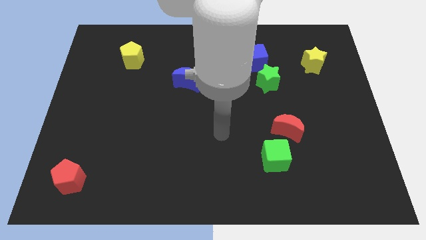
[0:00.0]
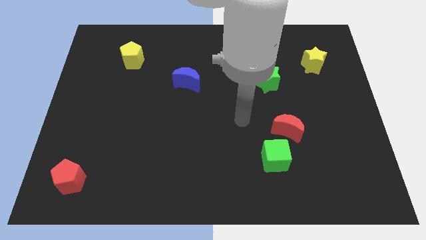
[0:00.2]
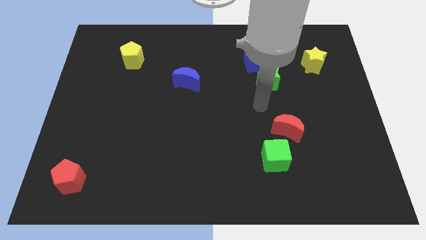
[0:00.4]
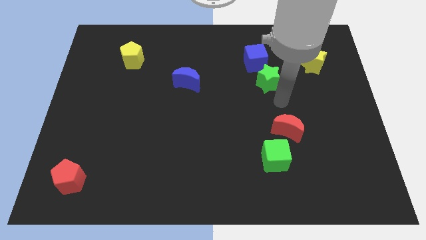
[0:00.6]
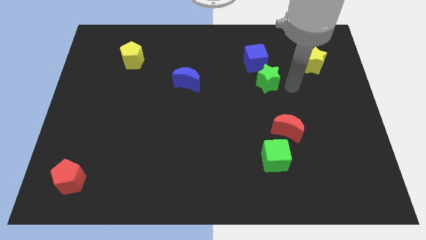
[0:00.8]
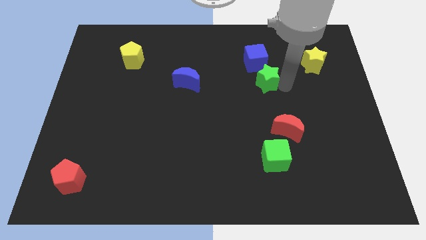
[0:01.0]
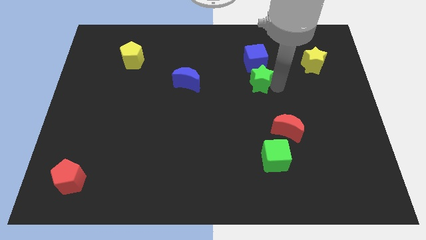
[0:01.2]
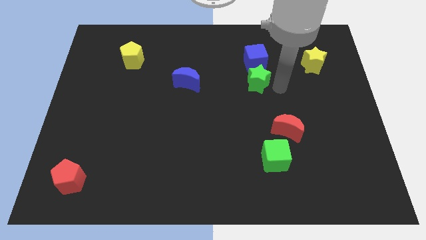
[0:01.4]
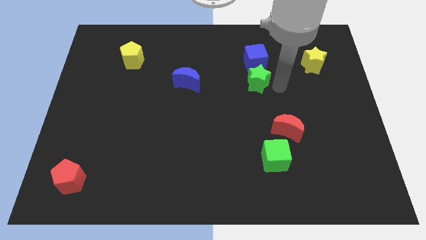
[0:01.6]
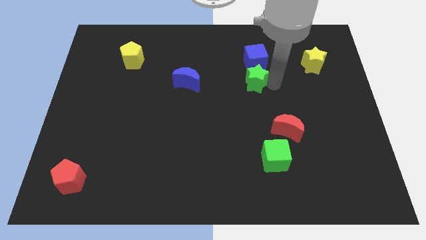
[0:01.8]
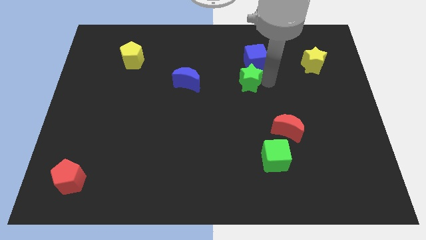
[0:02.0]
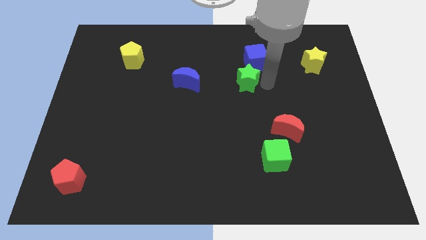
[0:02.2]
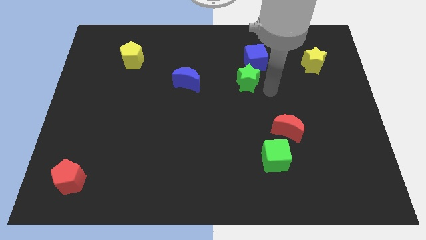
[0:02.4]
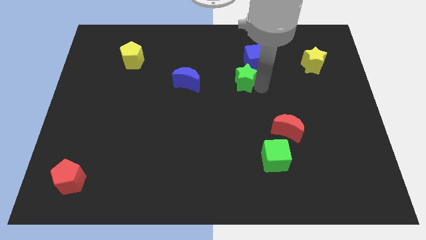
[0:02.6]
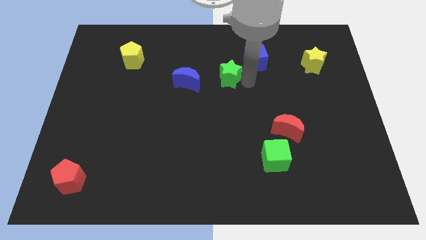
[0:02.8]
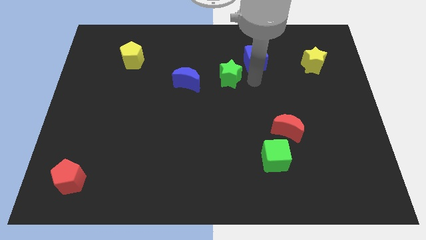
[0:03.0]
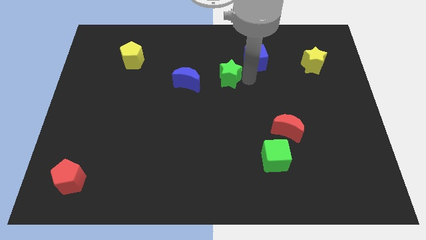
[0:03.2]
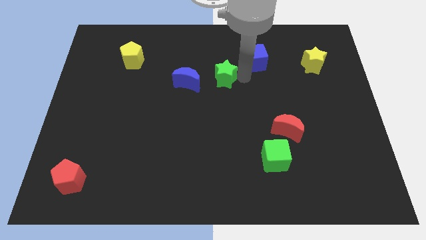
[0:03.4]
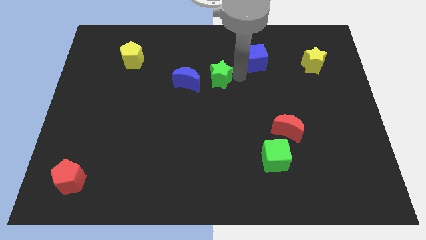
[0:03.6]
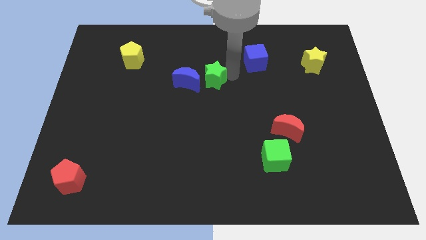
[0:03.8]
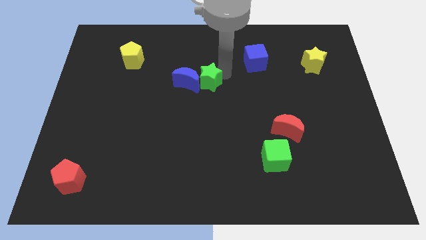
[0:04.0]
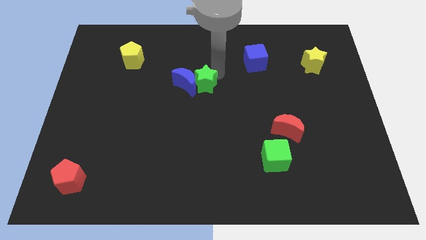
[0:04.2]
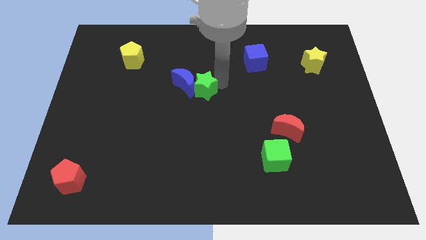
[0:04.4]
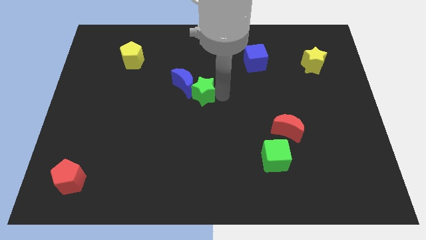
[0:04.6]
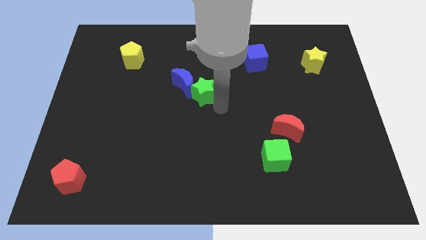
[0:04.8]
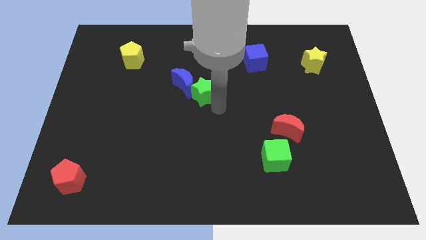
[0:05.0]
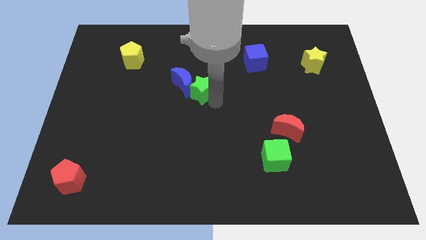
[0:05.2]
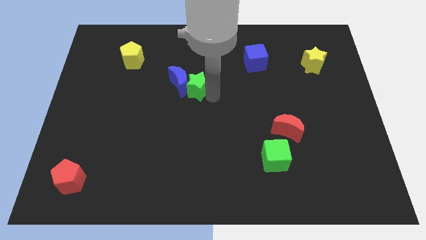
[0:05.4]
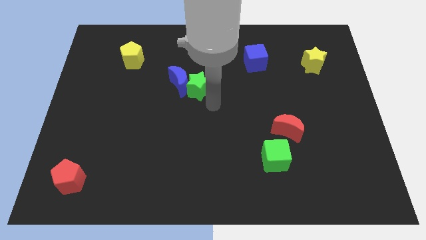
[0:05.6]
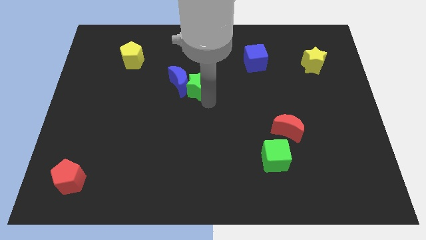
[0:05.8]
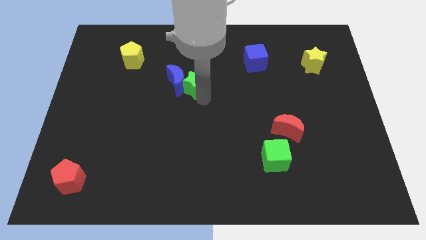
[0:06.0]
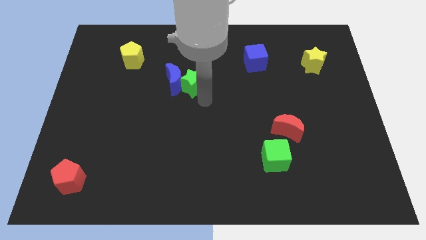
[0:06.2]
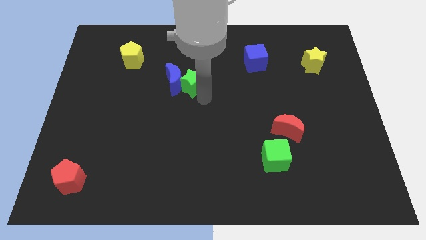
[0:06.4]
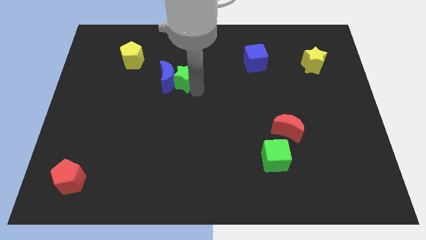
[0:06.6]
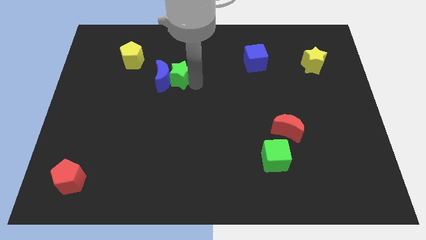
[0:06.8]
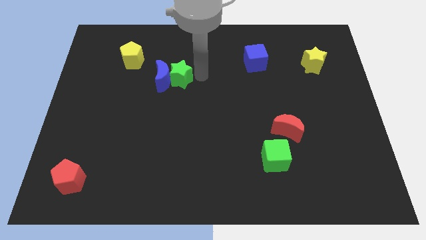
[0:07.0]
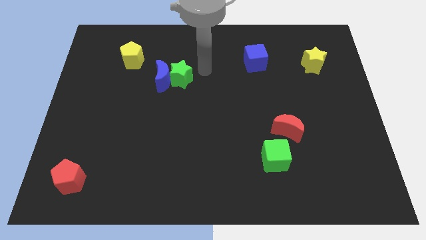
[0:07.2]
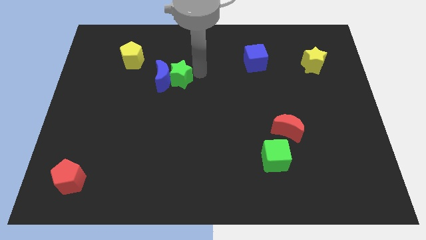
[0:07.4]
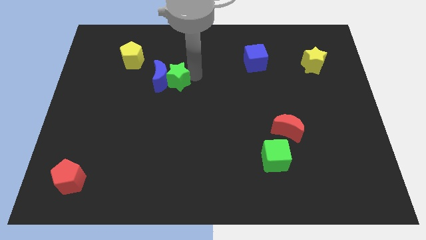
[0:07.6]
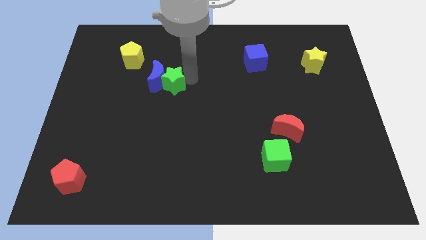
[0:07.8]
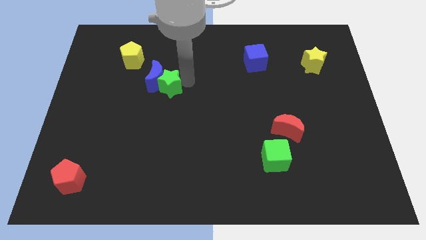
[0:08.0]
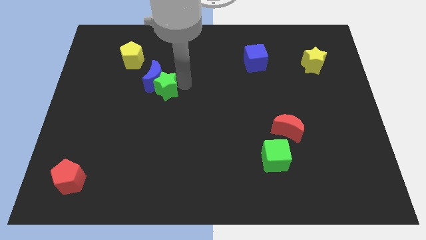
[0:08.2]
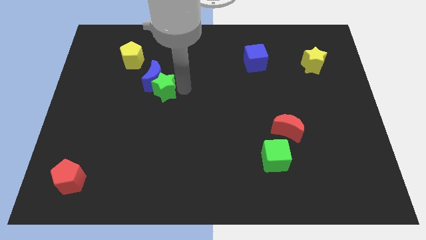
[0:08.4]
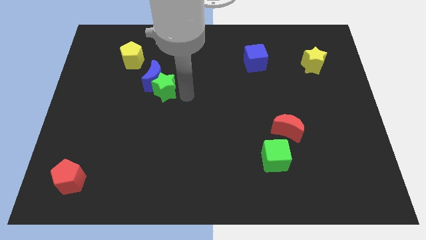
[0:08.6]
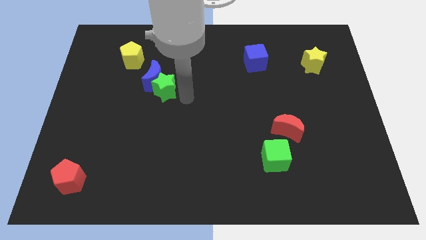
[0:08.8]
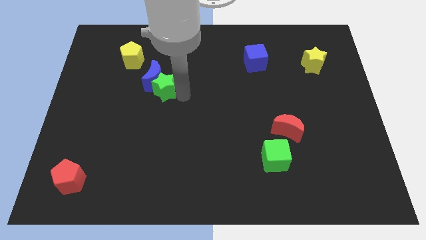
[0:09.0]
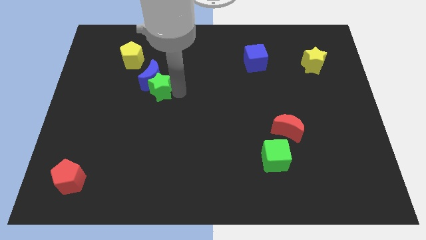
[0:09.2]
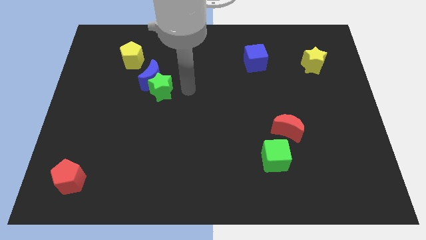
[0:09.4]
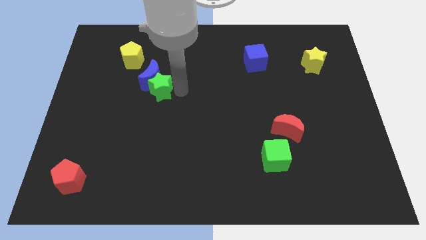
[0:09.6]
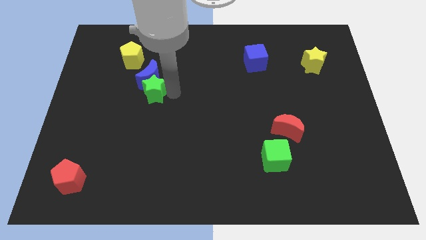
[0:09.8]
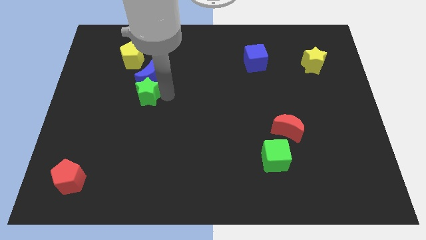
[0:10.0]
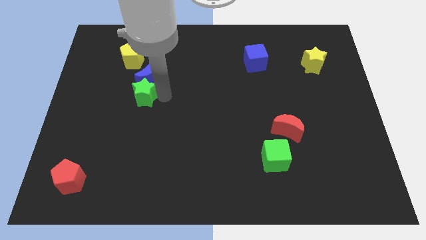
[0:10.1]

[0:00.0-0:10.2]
move the green star to the bottom side of the yellow pentagon

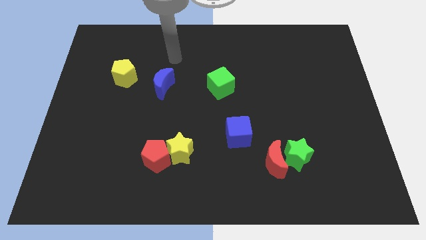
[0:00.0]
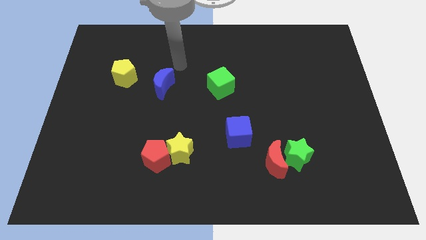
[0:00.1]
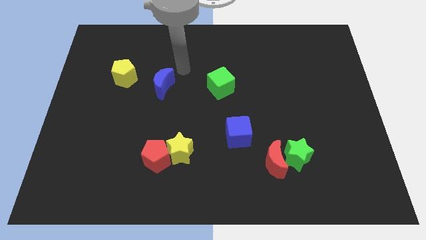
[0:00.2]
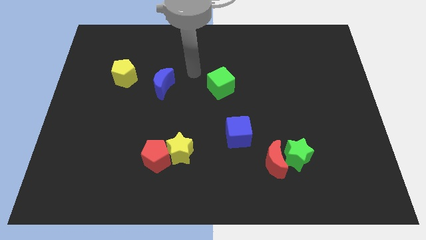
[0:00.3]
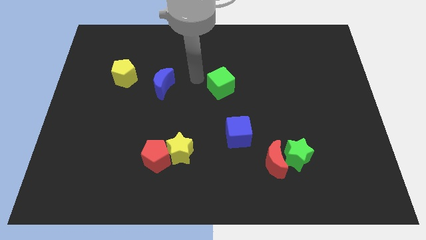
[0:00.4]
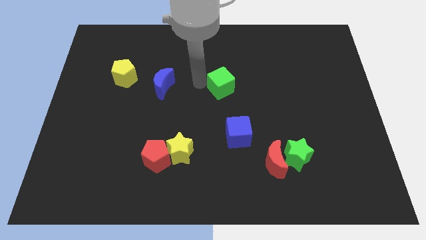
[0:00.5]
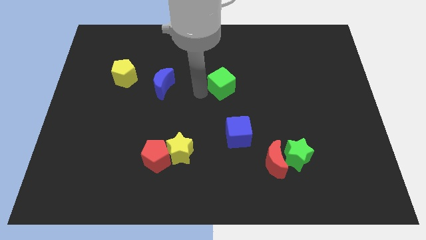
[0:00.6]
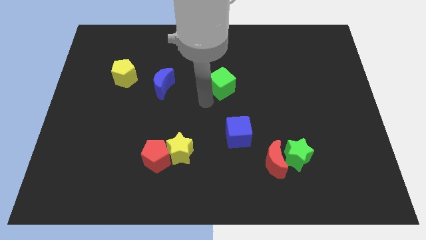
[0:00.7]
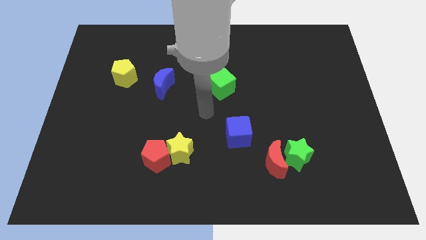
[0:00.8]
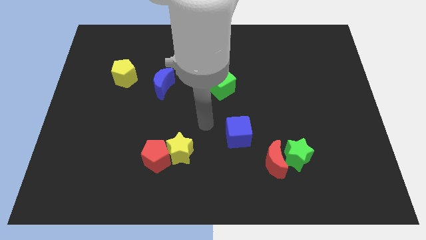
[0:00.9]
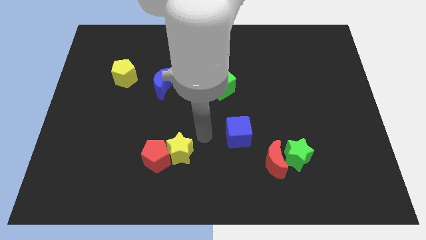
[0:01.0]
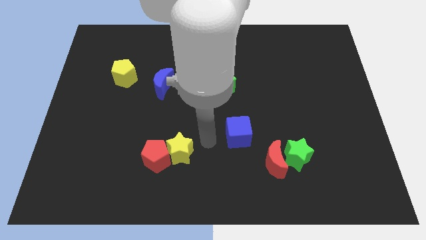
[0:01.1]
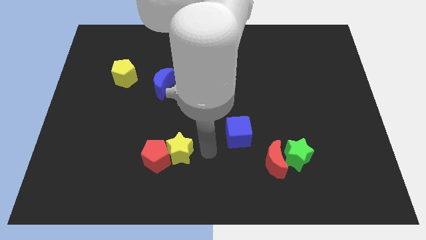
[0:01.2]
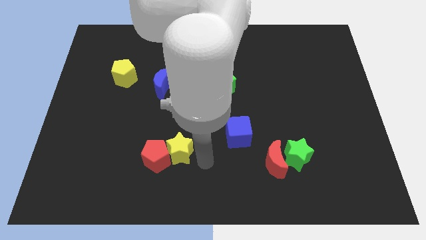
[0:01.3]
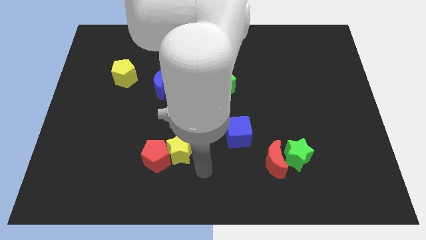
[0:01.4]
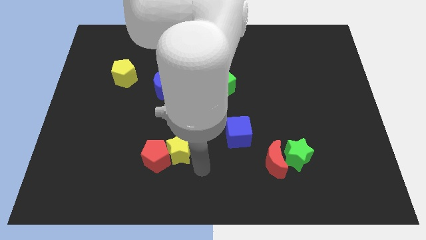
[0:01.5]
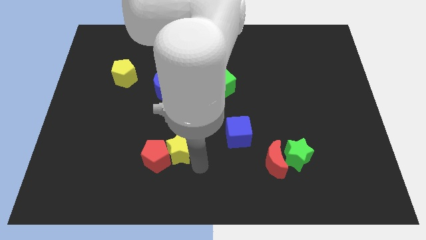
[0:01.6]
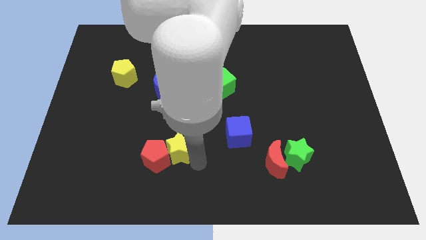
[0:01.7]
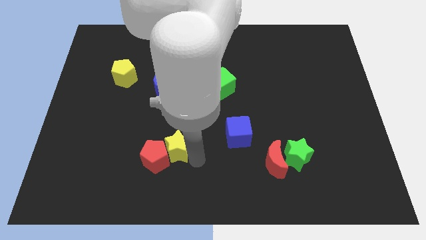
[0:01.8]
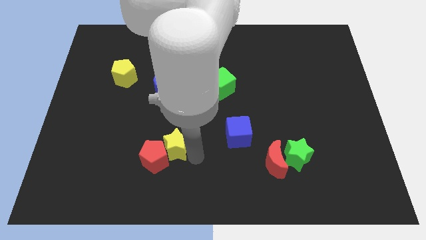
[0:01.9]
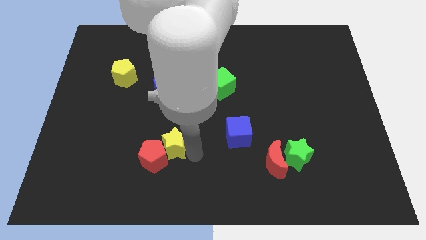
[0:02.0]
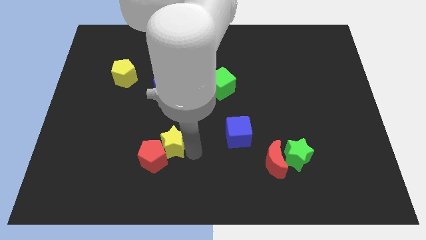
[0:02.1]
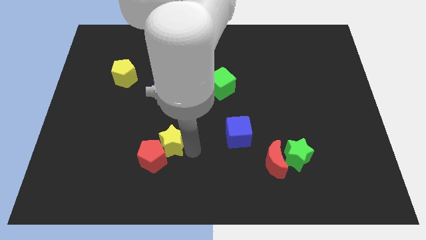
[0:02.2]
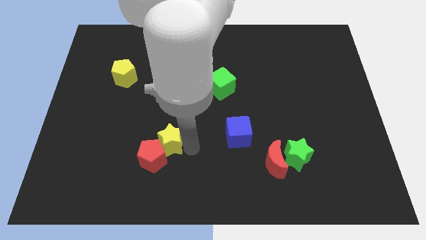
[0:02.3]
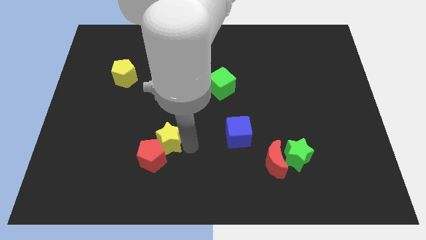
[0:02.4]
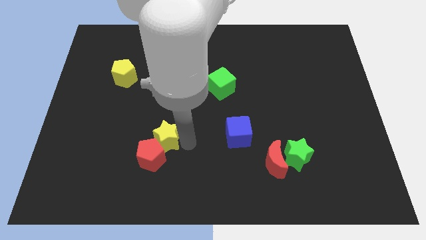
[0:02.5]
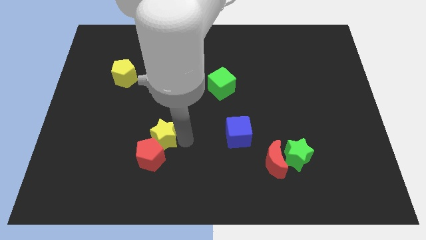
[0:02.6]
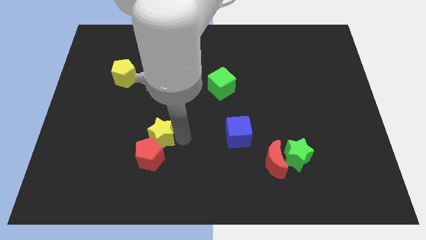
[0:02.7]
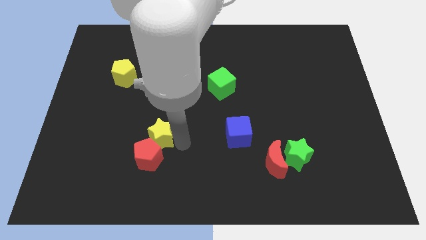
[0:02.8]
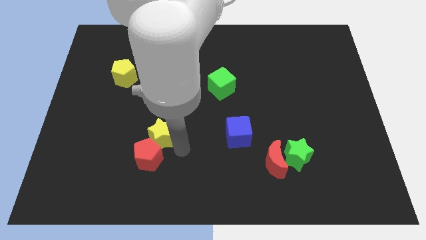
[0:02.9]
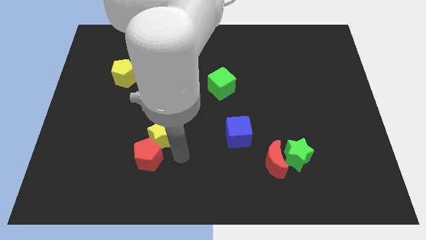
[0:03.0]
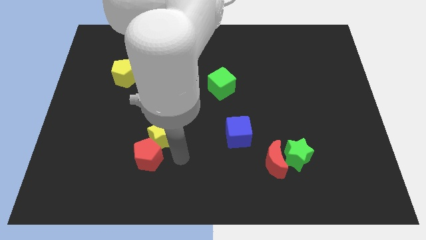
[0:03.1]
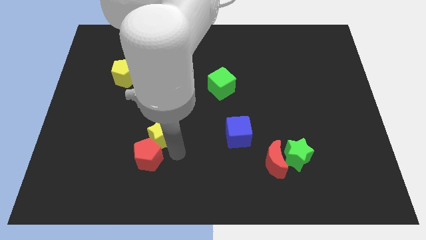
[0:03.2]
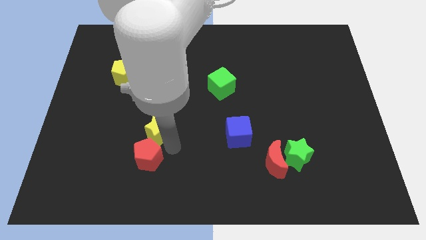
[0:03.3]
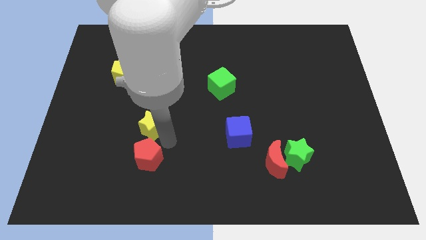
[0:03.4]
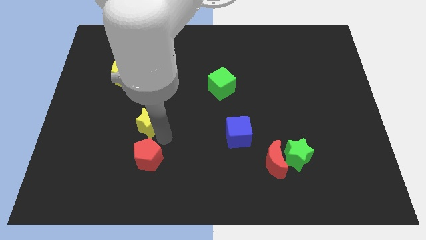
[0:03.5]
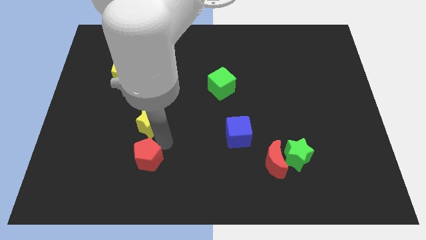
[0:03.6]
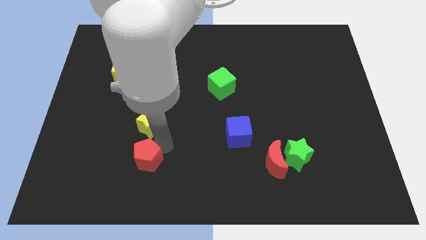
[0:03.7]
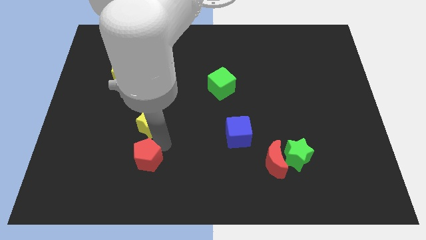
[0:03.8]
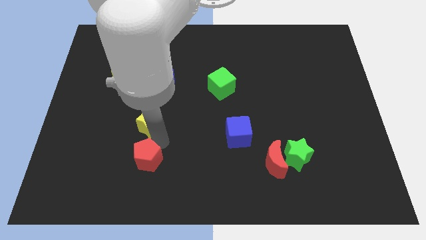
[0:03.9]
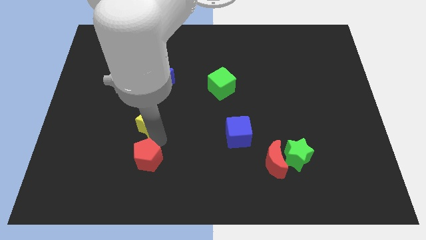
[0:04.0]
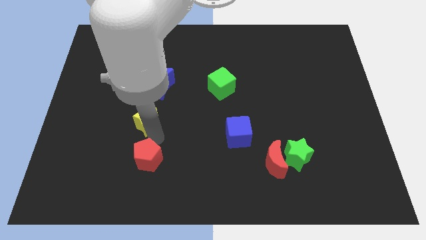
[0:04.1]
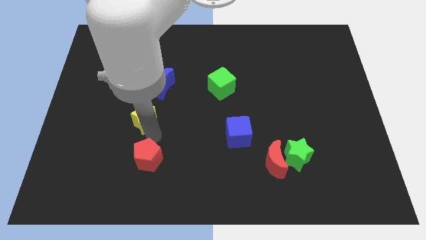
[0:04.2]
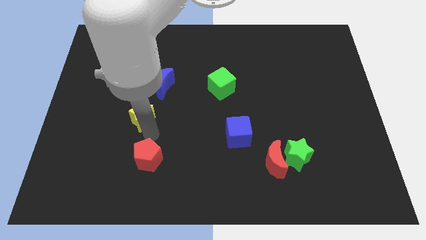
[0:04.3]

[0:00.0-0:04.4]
push the yellow star diagonally down and to the left of the blue moon
